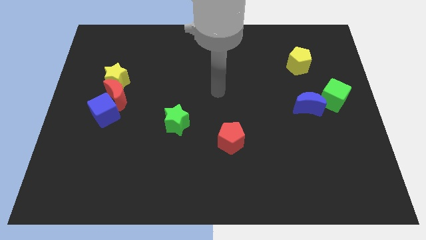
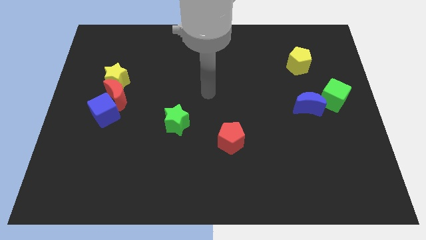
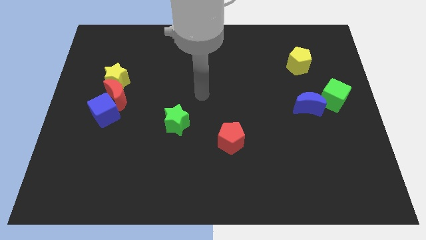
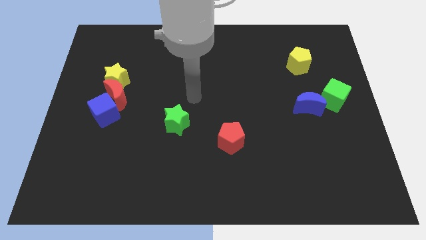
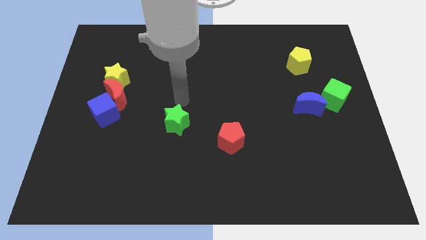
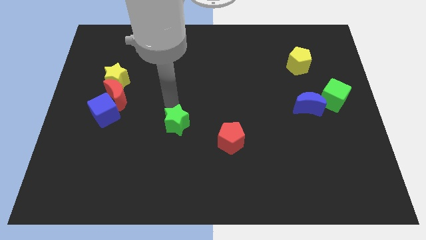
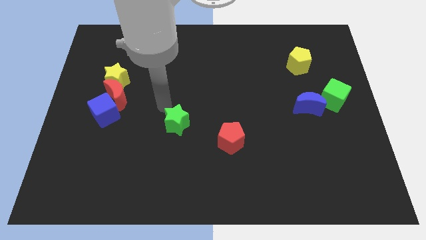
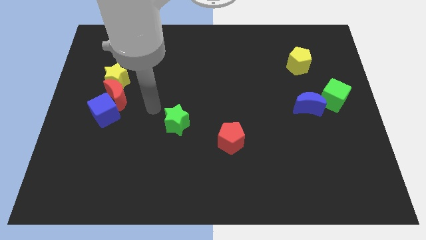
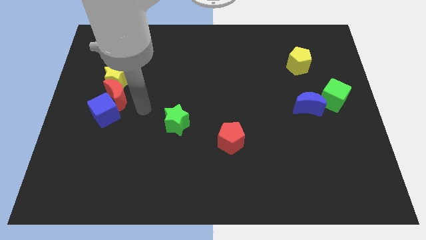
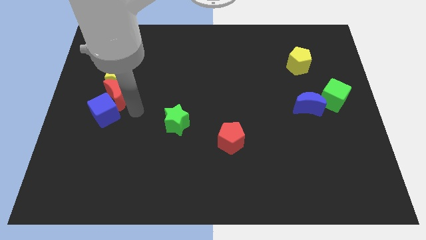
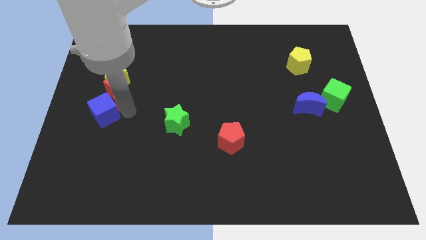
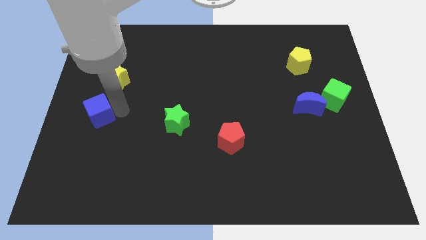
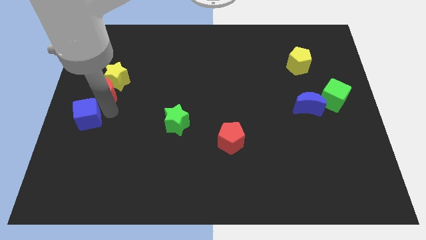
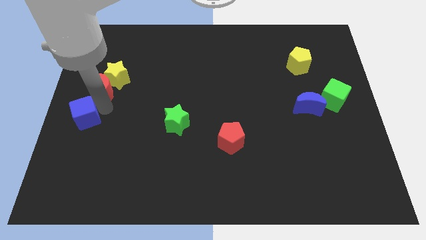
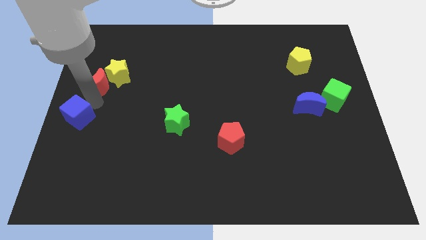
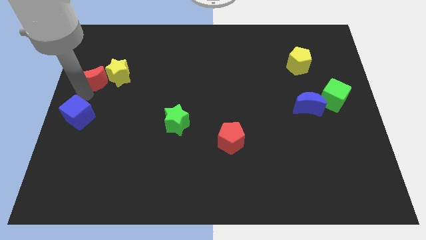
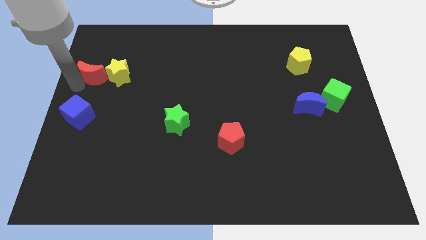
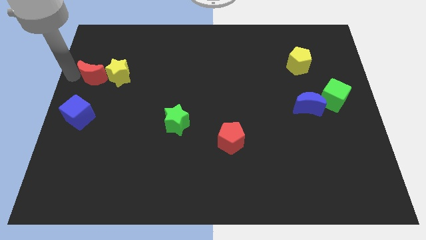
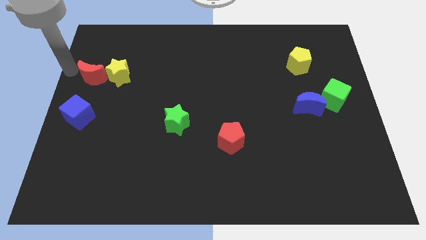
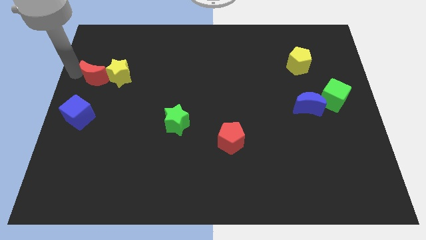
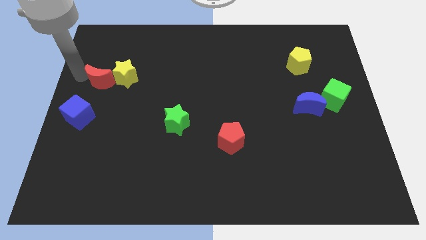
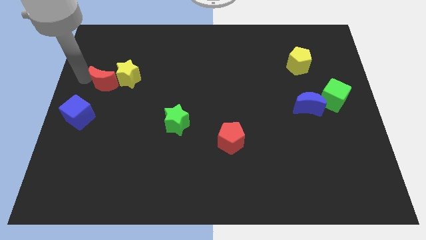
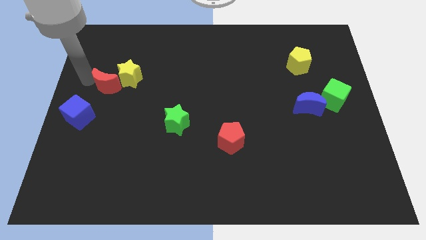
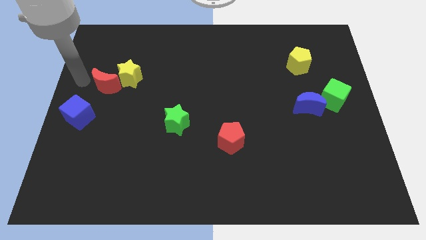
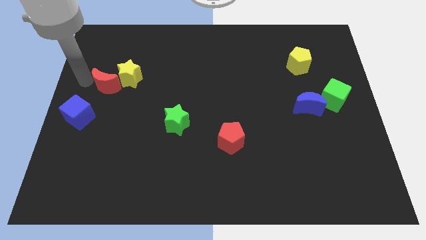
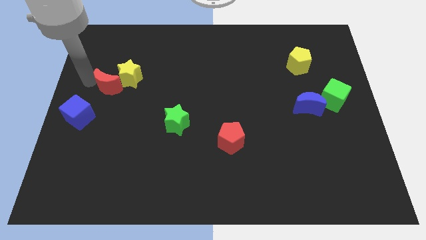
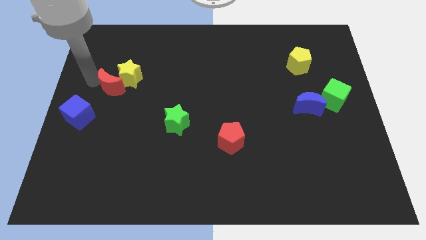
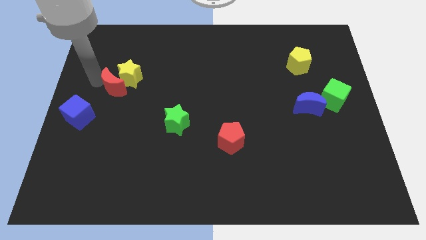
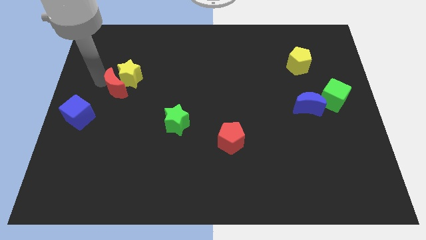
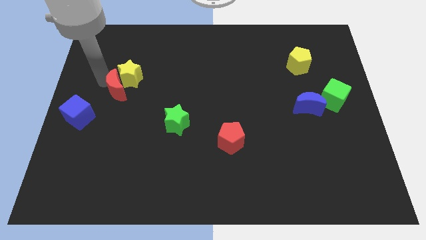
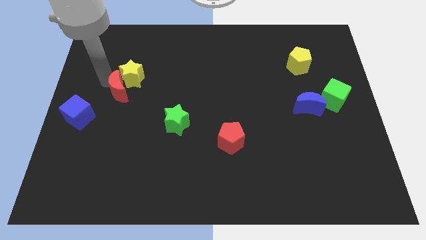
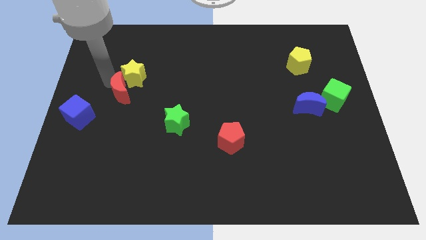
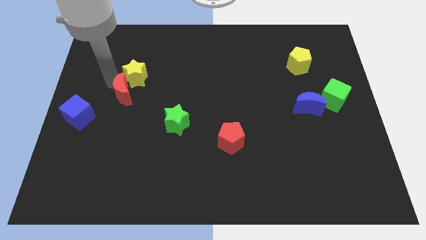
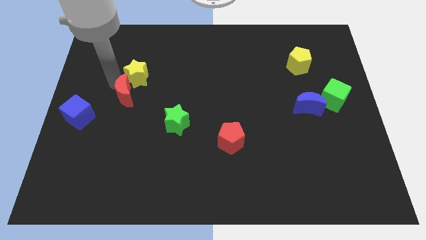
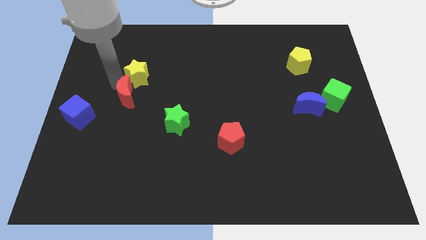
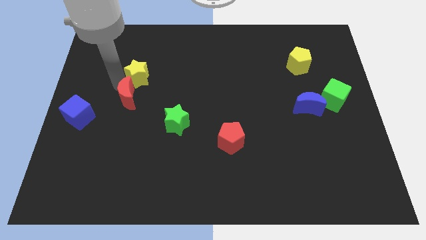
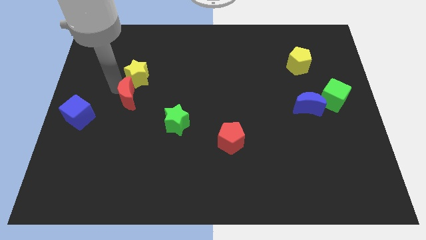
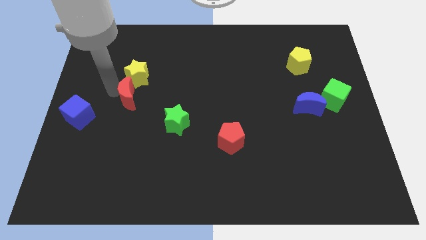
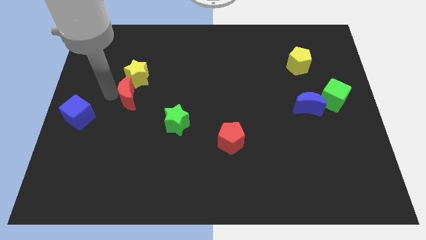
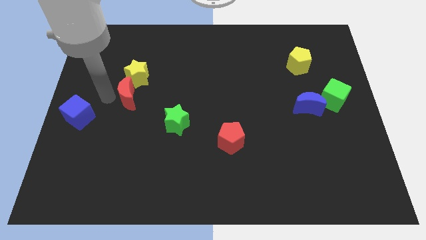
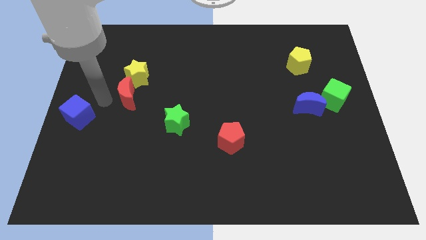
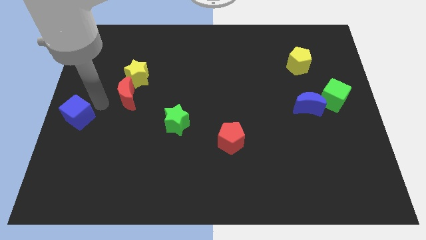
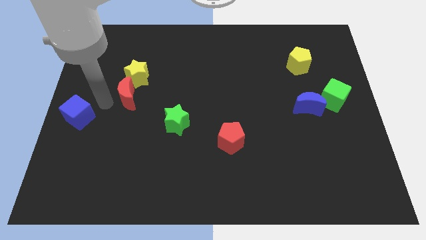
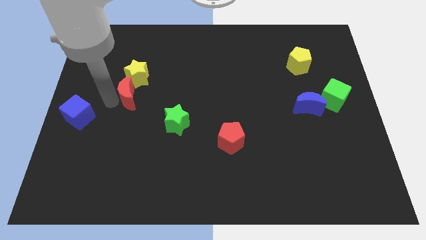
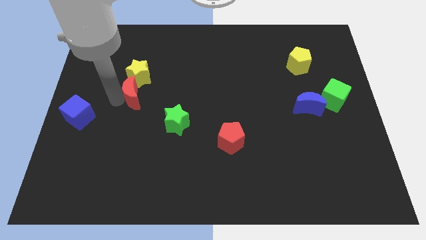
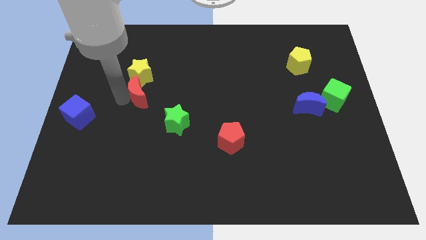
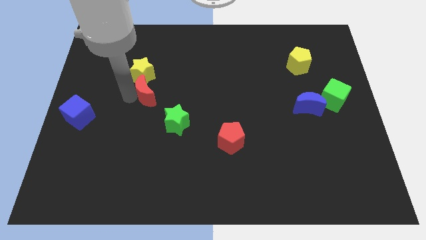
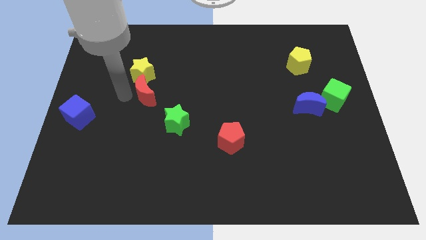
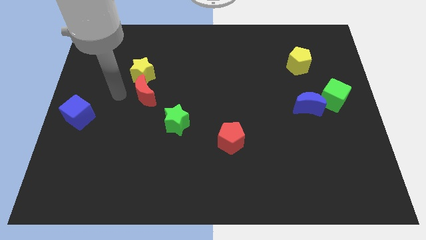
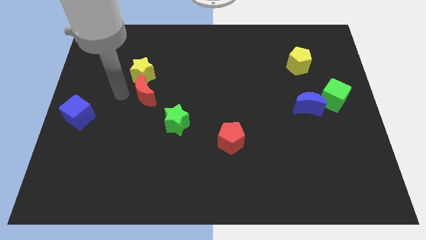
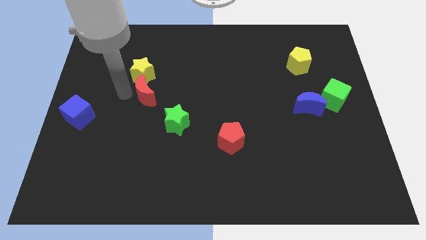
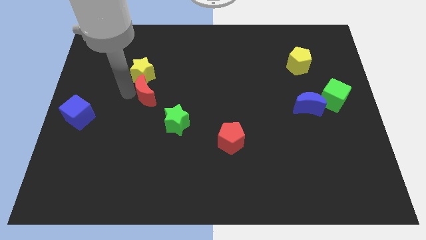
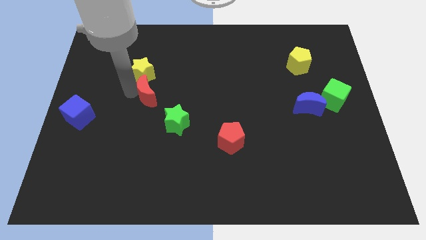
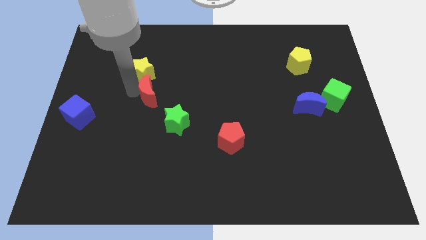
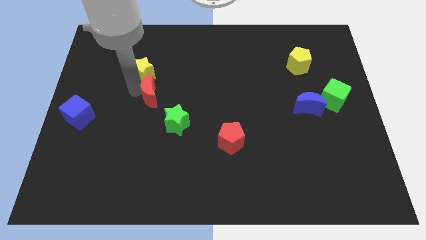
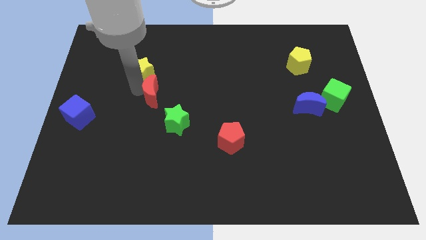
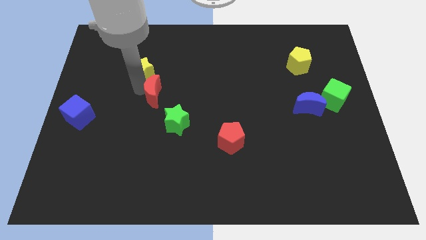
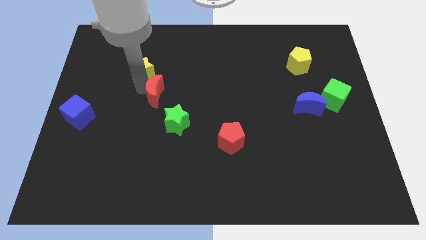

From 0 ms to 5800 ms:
separate the red moon from the yellow star and blue cube

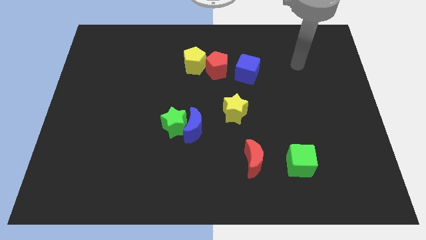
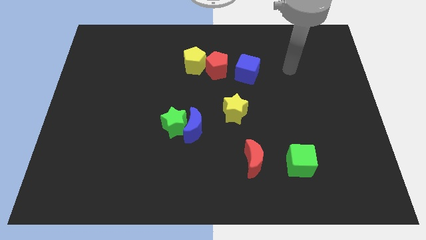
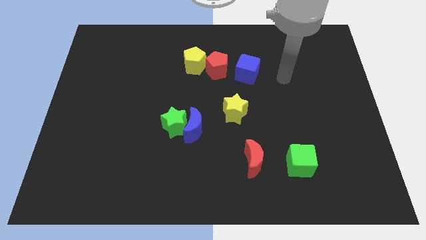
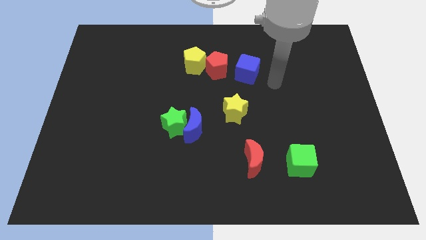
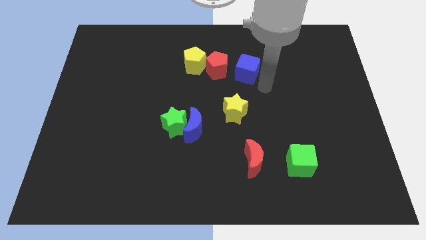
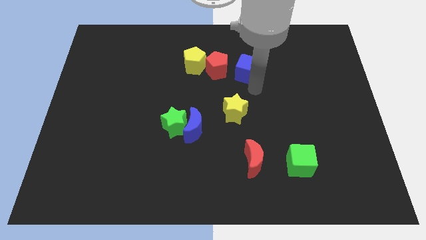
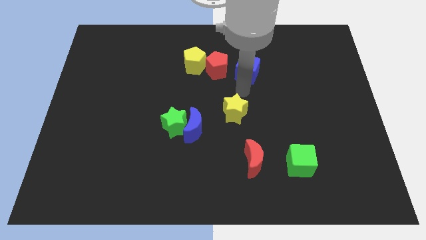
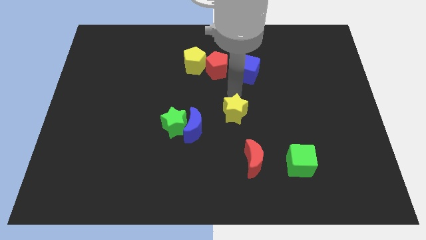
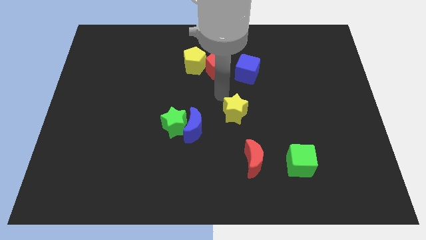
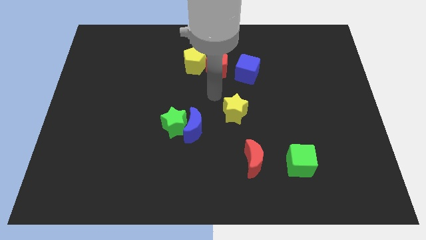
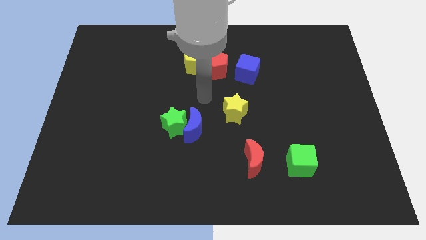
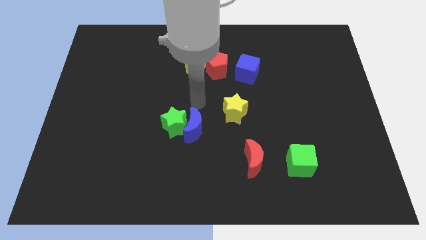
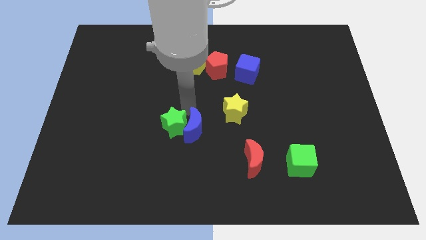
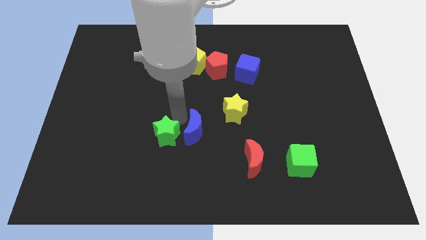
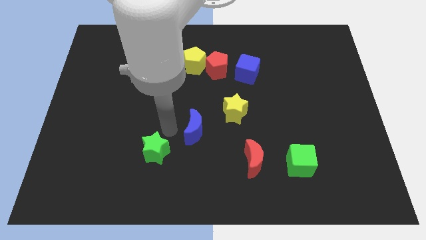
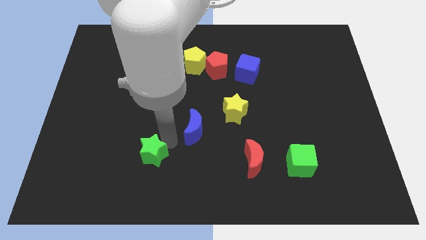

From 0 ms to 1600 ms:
move the blue moon away from the green star

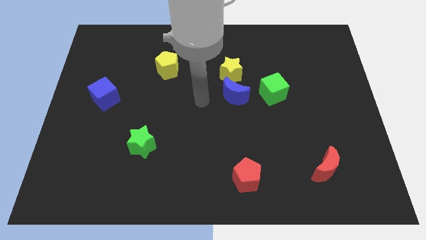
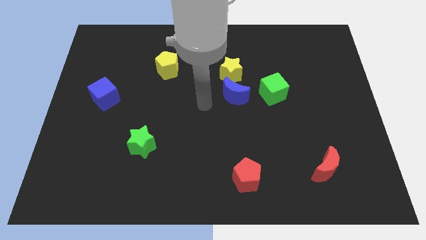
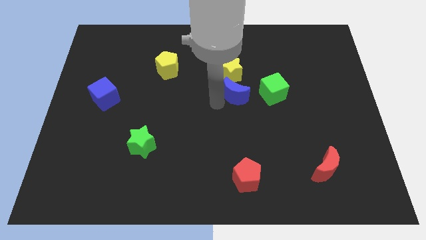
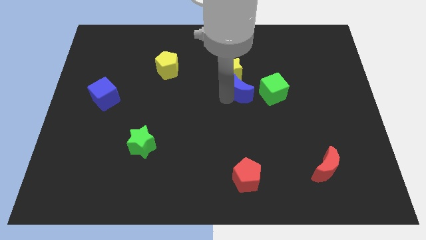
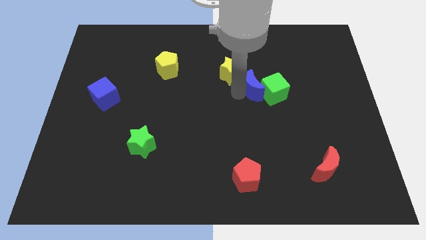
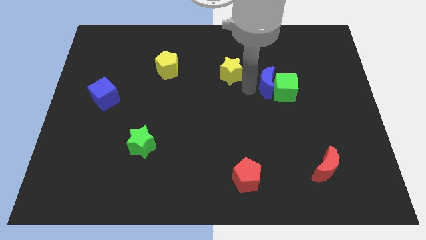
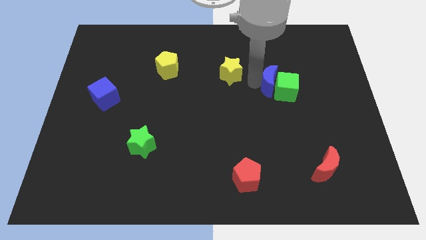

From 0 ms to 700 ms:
move the yellow star away from the blue moon

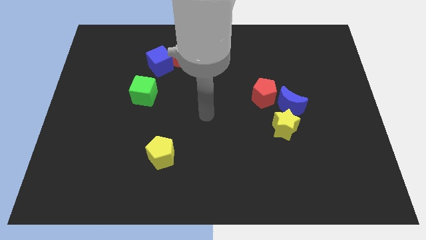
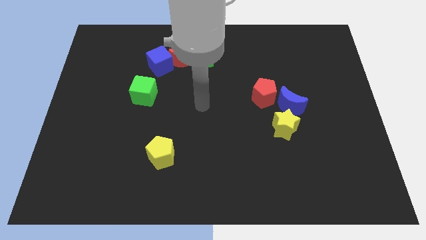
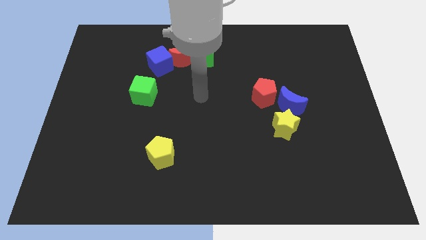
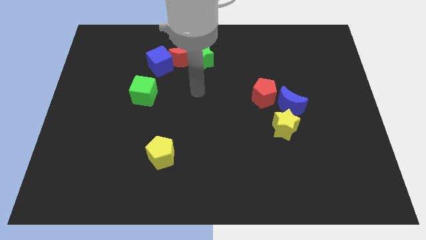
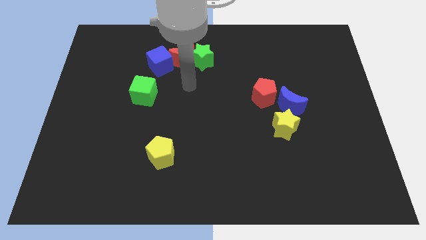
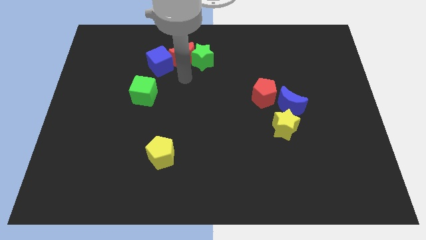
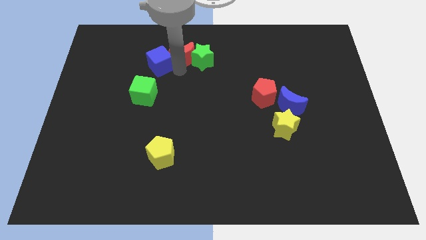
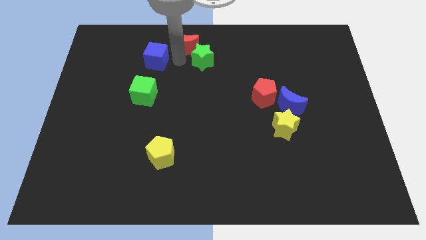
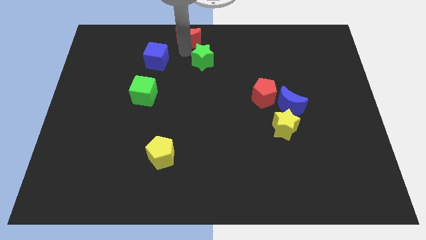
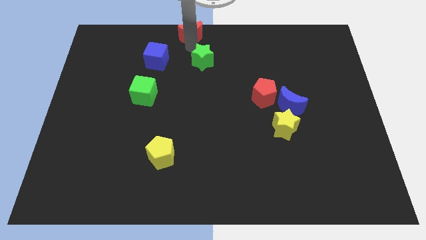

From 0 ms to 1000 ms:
pull the green star apart from the red moon

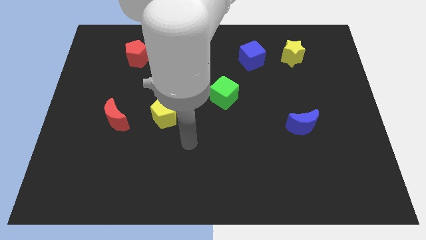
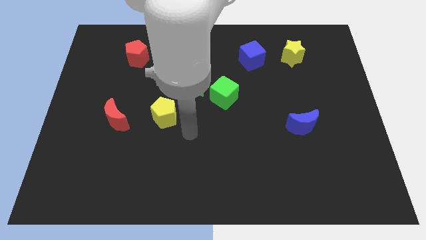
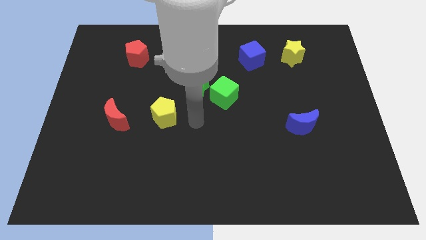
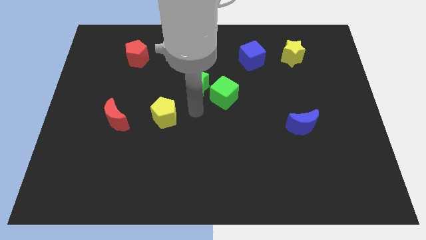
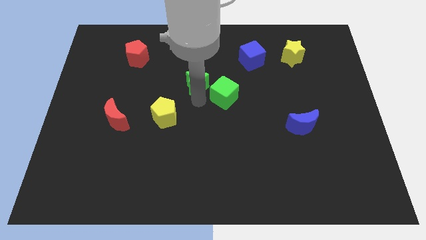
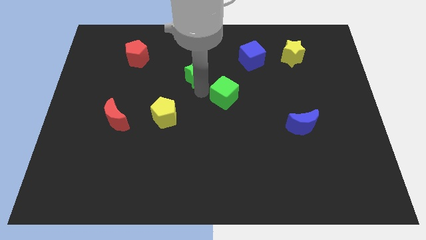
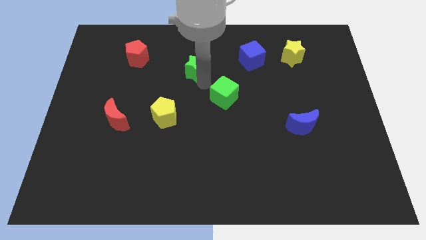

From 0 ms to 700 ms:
move the green cube away from the green star
